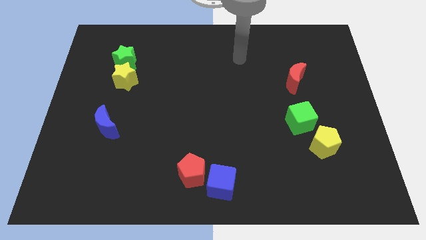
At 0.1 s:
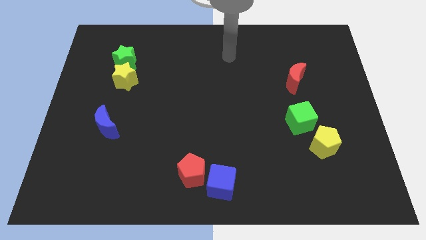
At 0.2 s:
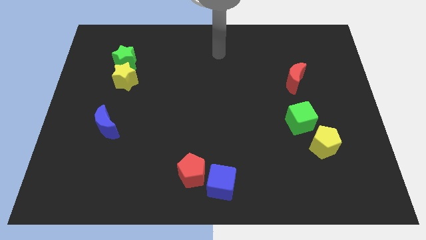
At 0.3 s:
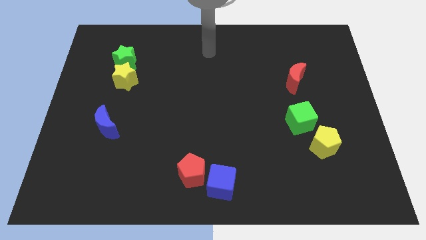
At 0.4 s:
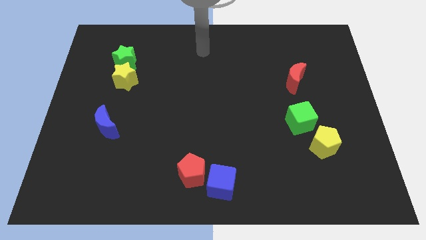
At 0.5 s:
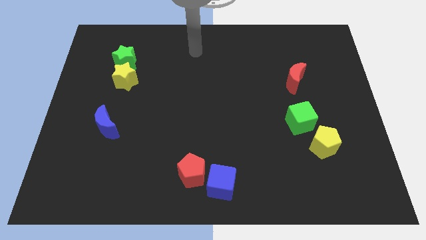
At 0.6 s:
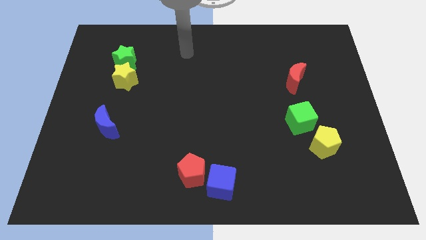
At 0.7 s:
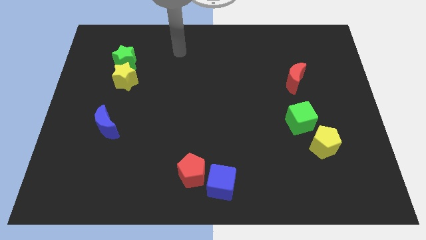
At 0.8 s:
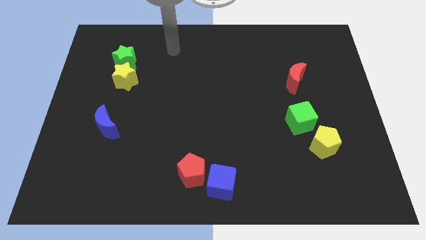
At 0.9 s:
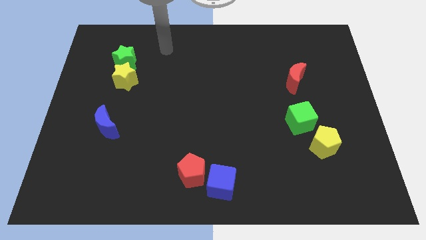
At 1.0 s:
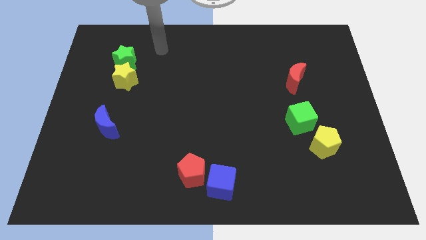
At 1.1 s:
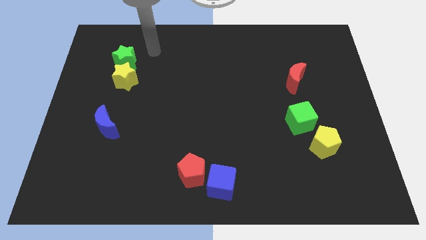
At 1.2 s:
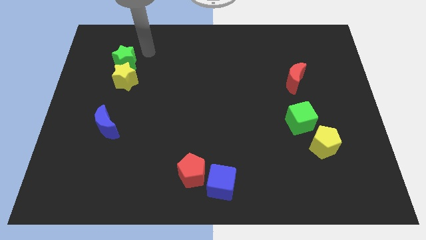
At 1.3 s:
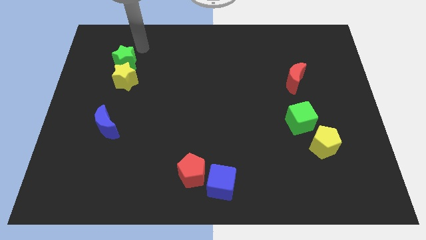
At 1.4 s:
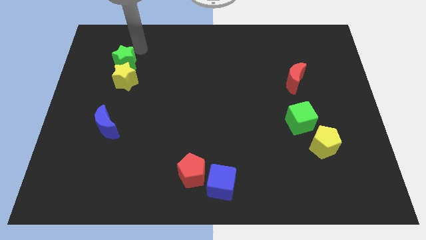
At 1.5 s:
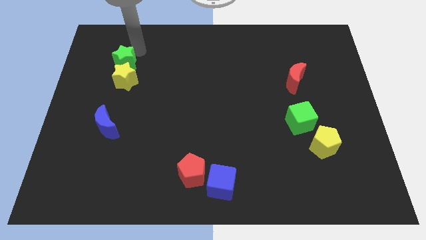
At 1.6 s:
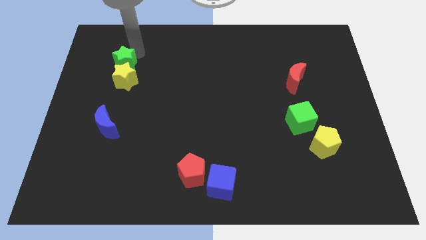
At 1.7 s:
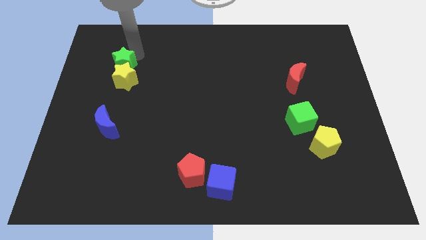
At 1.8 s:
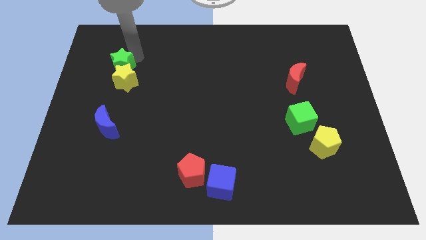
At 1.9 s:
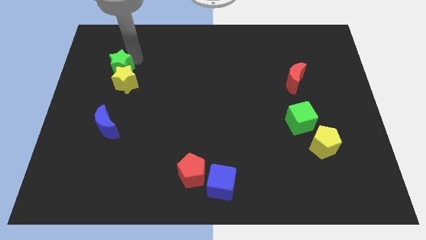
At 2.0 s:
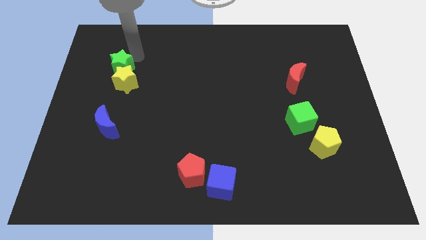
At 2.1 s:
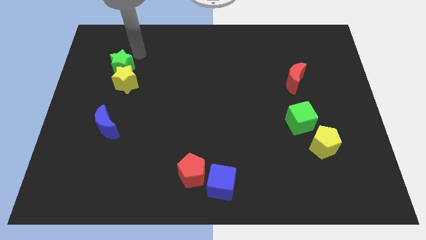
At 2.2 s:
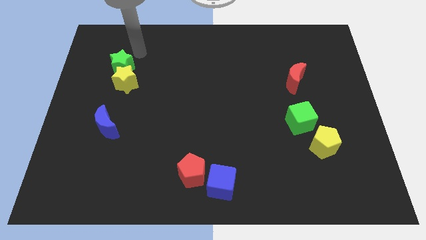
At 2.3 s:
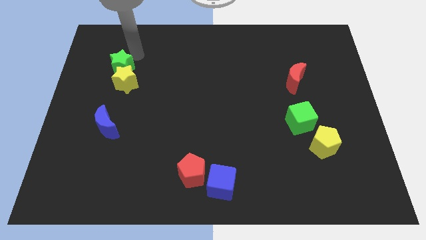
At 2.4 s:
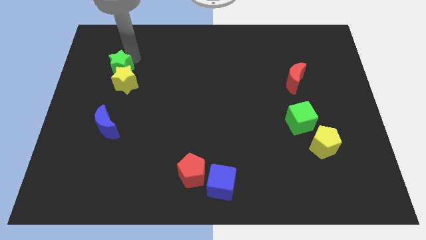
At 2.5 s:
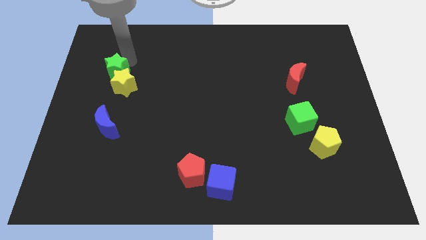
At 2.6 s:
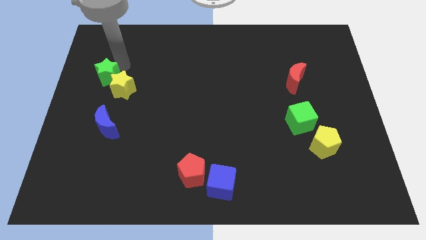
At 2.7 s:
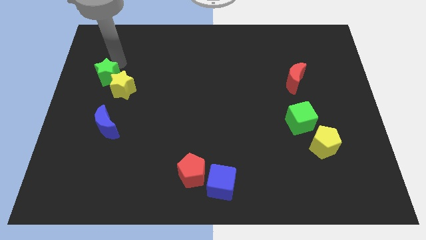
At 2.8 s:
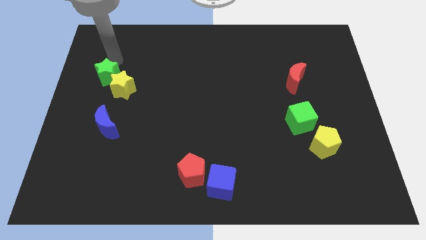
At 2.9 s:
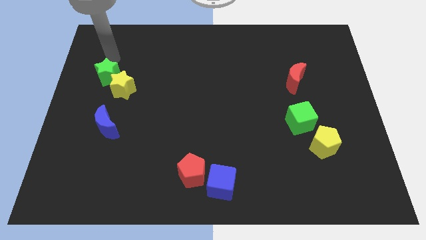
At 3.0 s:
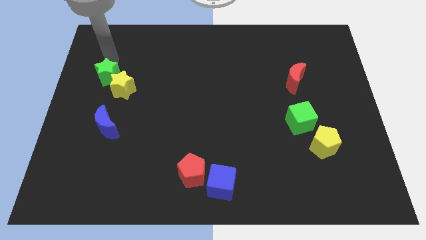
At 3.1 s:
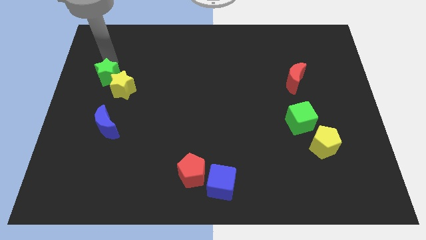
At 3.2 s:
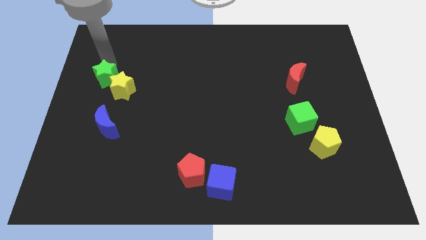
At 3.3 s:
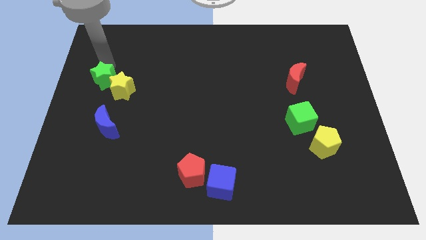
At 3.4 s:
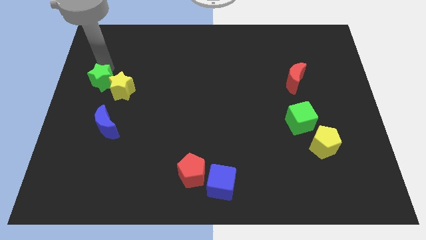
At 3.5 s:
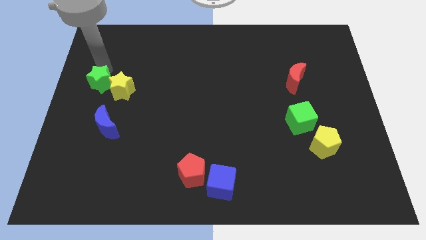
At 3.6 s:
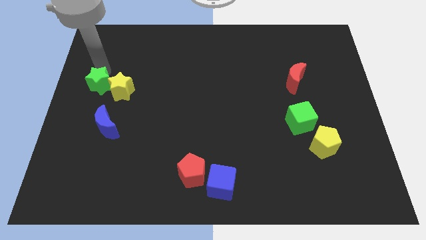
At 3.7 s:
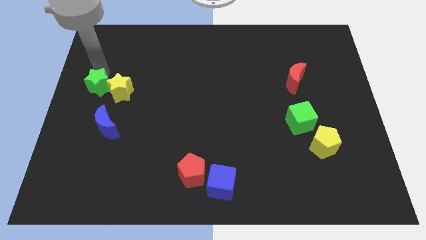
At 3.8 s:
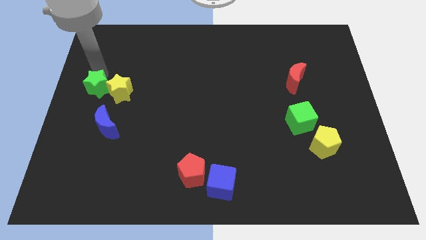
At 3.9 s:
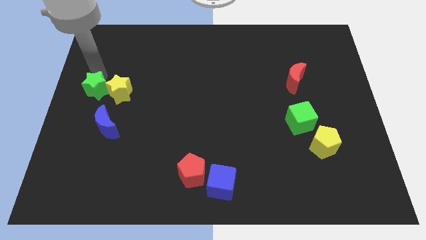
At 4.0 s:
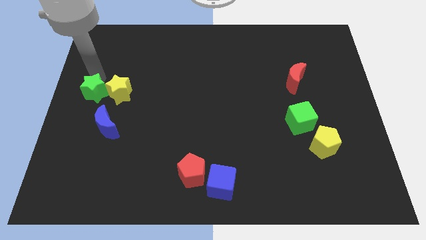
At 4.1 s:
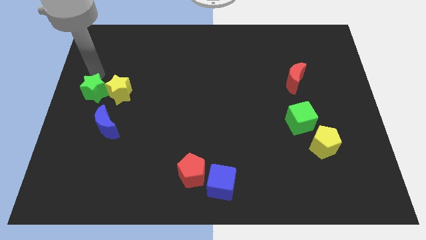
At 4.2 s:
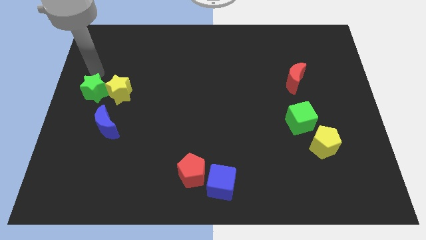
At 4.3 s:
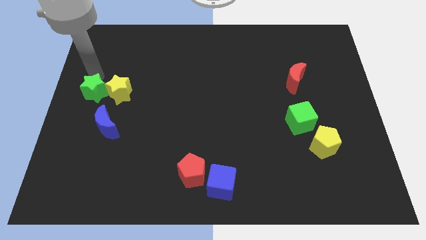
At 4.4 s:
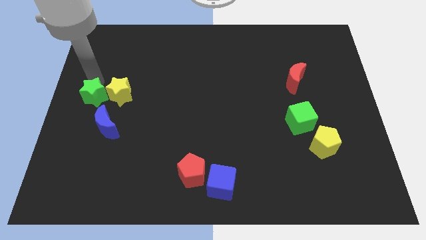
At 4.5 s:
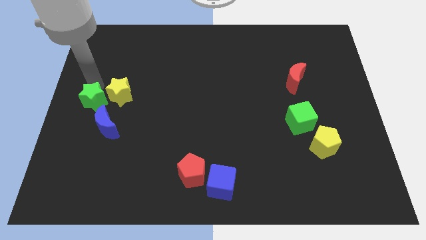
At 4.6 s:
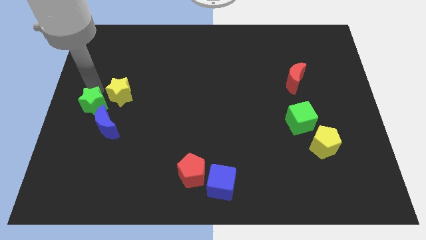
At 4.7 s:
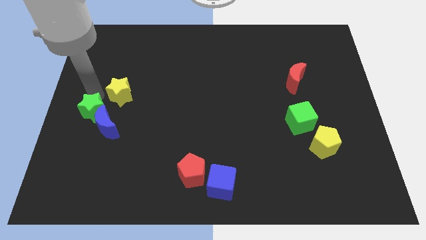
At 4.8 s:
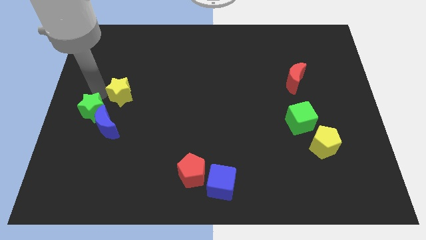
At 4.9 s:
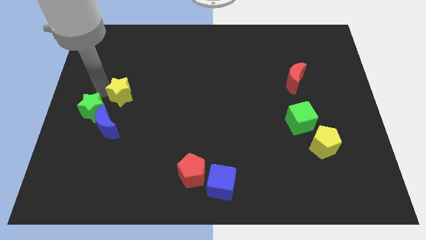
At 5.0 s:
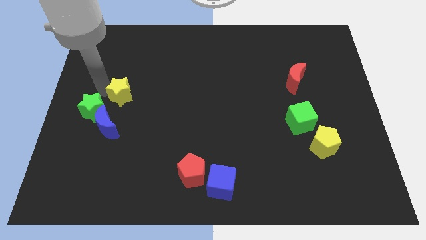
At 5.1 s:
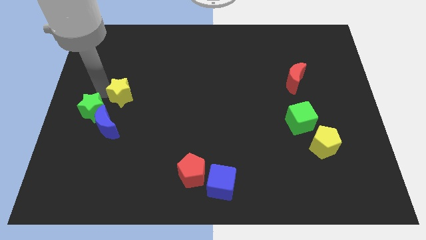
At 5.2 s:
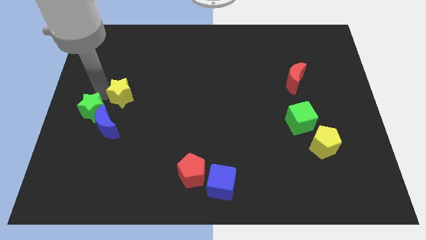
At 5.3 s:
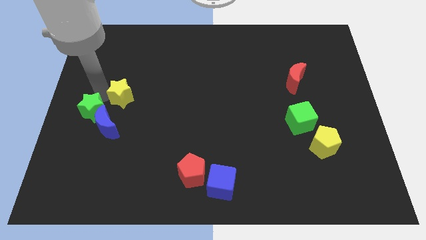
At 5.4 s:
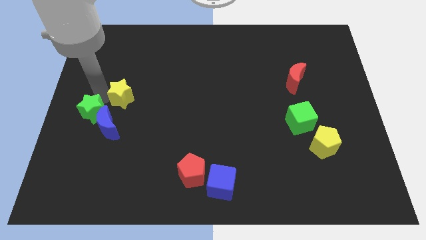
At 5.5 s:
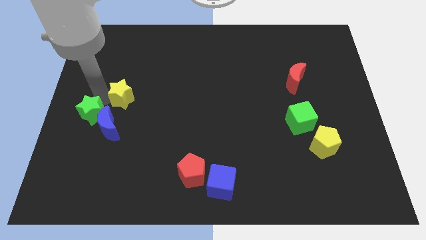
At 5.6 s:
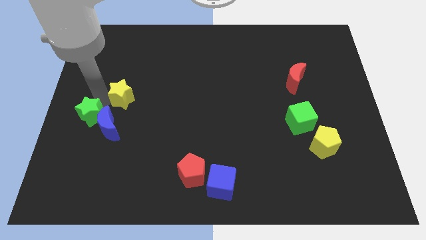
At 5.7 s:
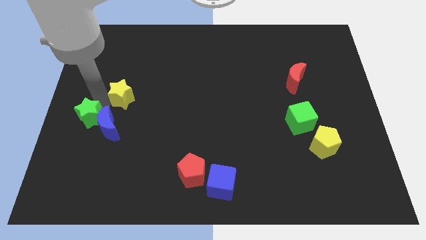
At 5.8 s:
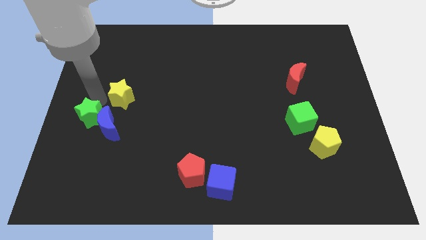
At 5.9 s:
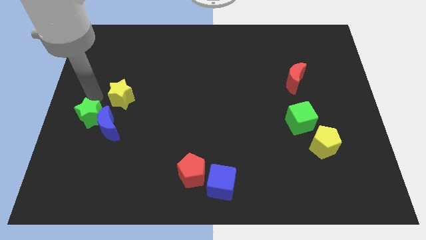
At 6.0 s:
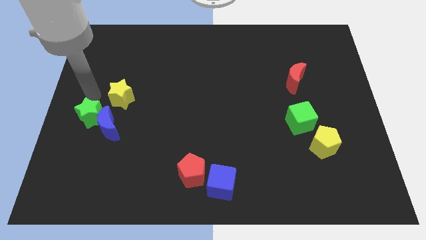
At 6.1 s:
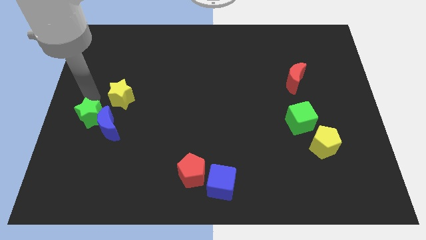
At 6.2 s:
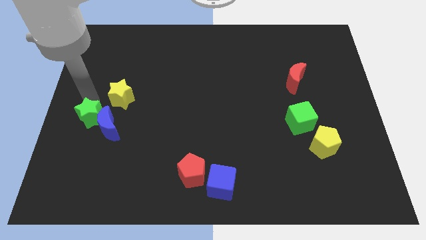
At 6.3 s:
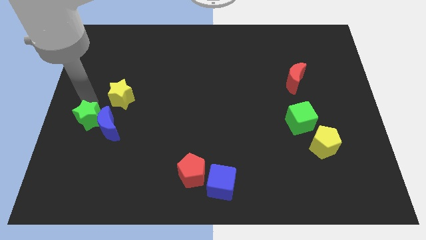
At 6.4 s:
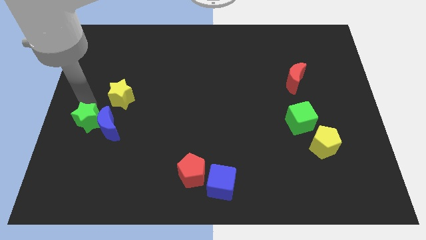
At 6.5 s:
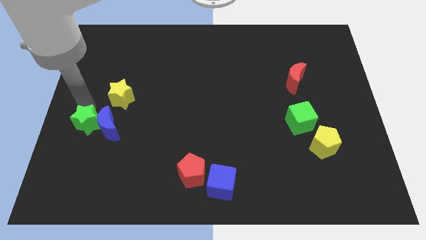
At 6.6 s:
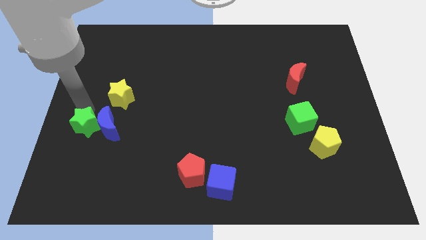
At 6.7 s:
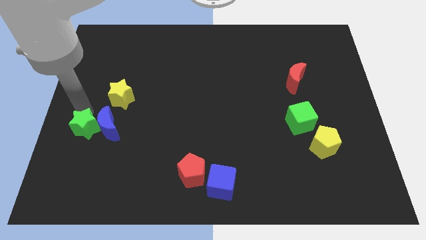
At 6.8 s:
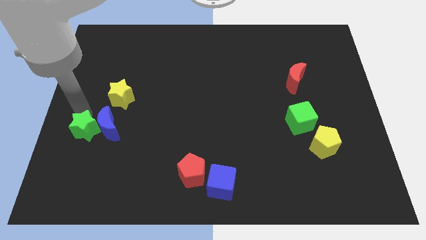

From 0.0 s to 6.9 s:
move the green star down

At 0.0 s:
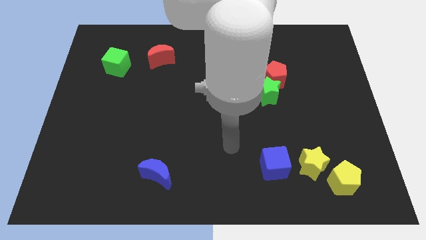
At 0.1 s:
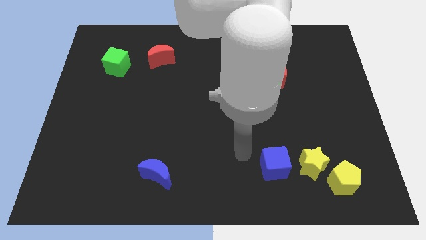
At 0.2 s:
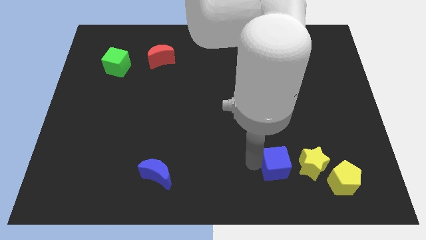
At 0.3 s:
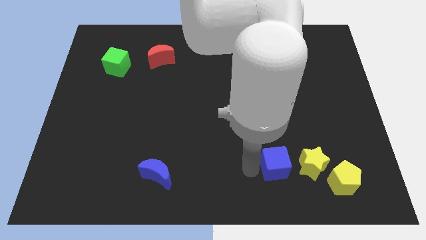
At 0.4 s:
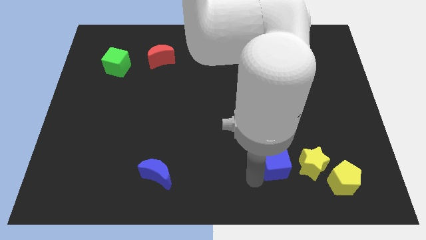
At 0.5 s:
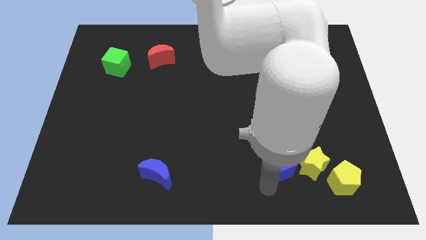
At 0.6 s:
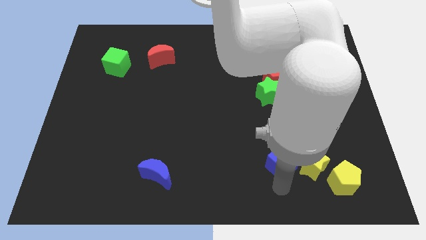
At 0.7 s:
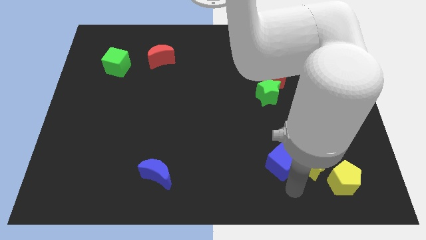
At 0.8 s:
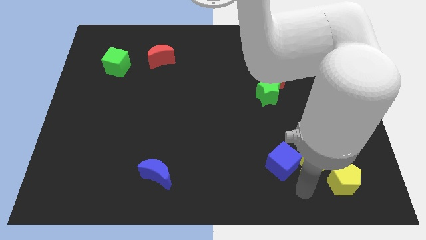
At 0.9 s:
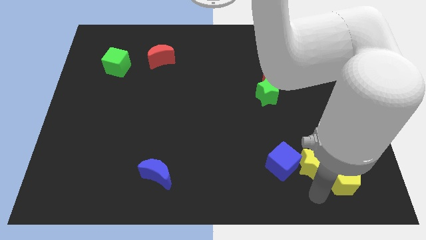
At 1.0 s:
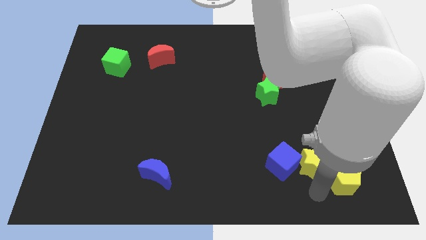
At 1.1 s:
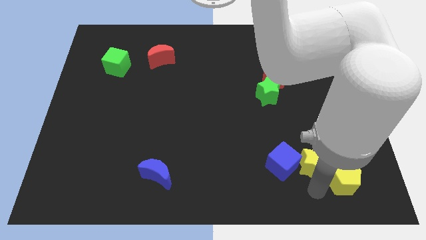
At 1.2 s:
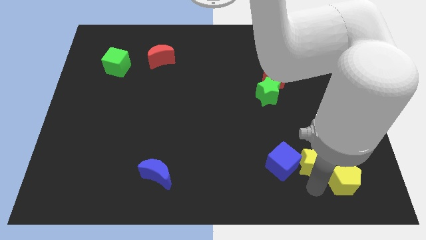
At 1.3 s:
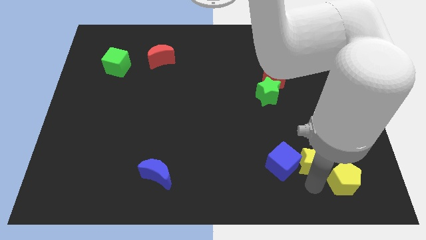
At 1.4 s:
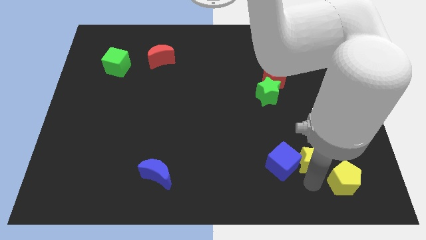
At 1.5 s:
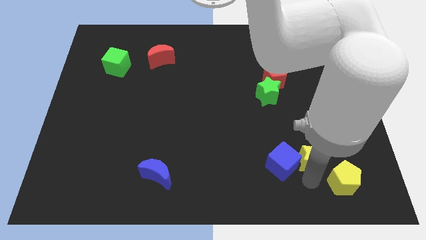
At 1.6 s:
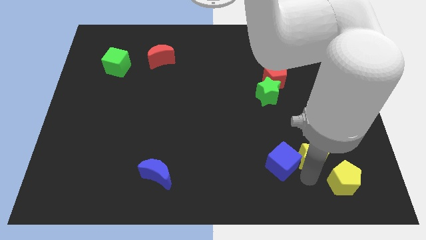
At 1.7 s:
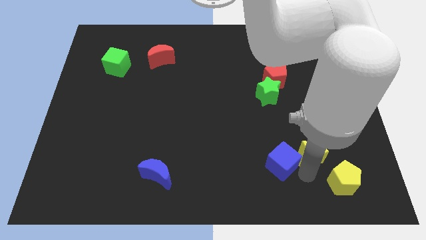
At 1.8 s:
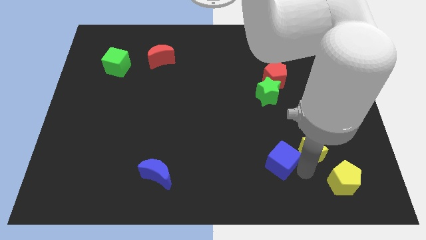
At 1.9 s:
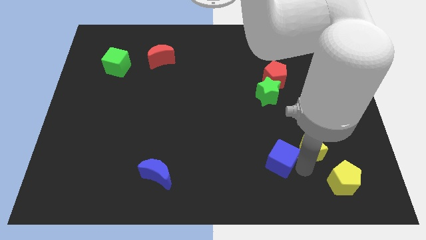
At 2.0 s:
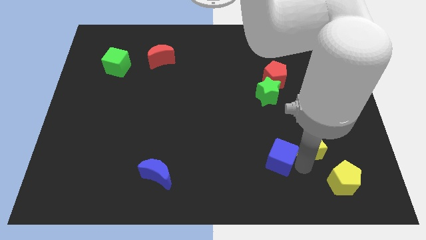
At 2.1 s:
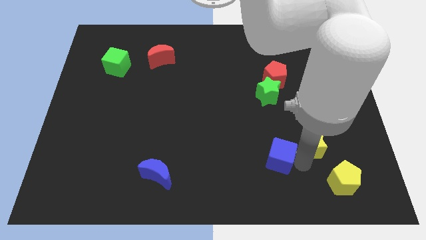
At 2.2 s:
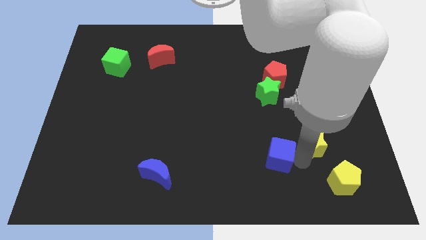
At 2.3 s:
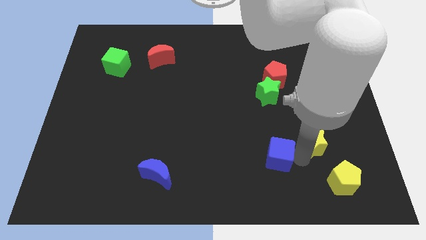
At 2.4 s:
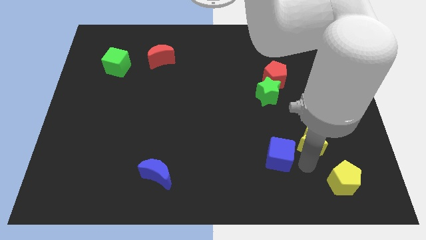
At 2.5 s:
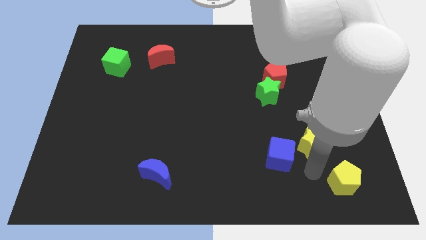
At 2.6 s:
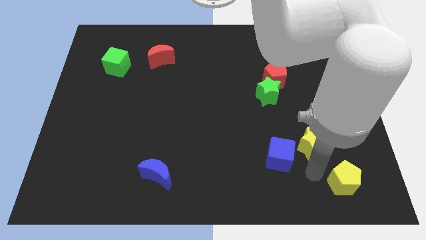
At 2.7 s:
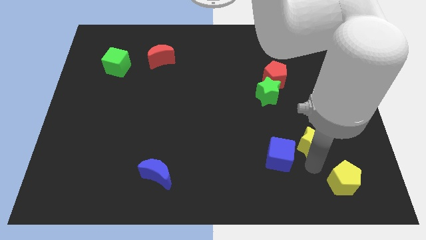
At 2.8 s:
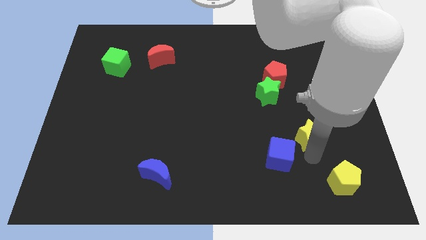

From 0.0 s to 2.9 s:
push the yellow star upwards a bit
